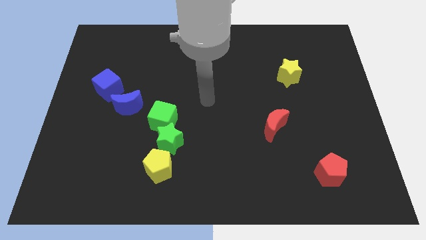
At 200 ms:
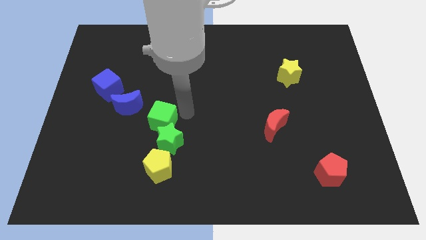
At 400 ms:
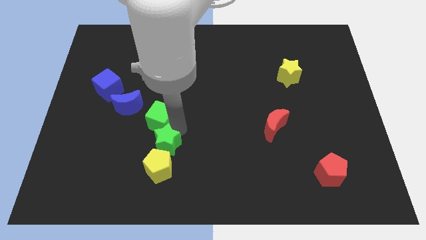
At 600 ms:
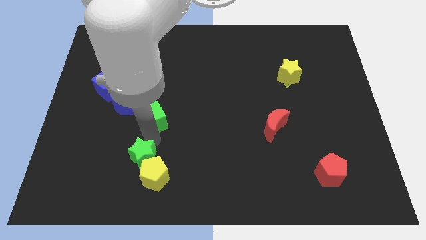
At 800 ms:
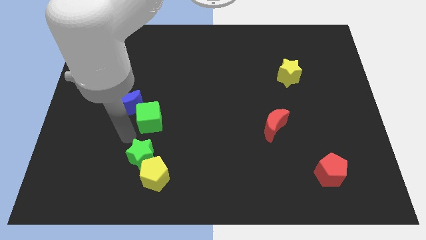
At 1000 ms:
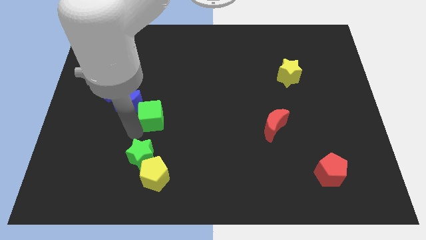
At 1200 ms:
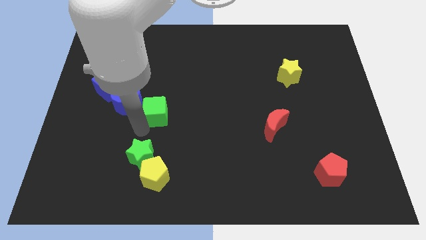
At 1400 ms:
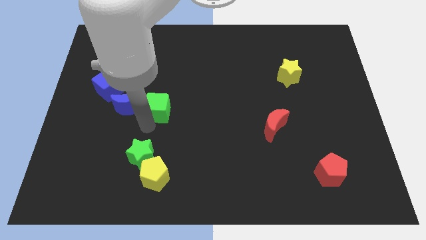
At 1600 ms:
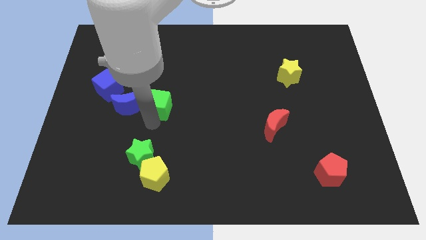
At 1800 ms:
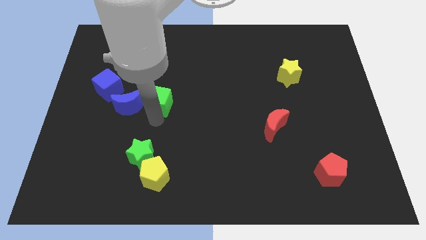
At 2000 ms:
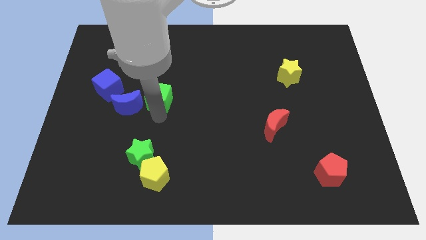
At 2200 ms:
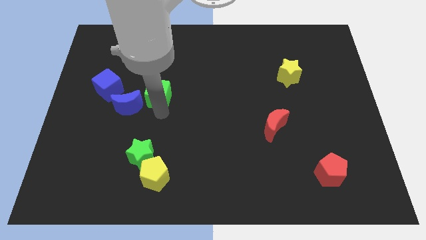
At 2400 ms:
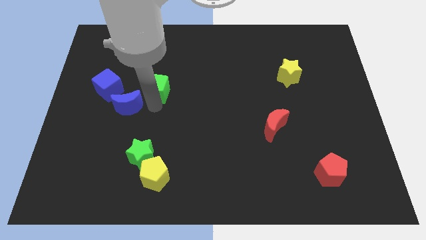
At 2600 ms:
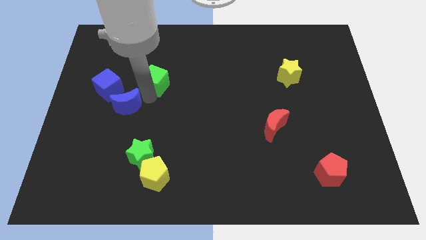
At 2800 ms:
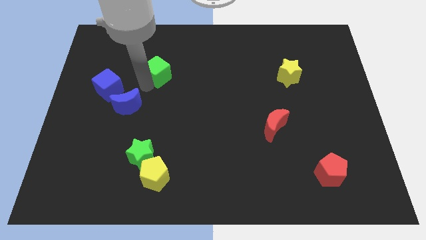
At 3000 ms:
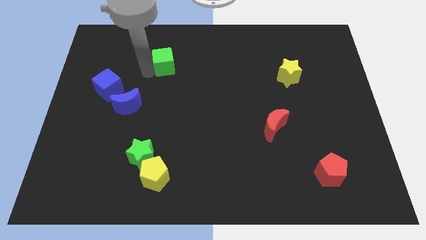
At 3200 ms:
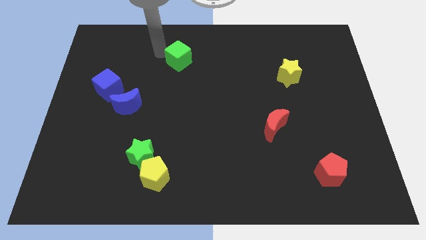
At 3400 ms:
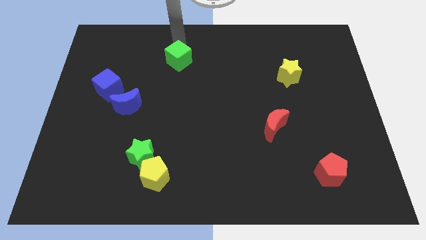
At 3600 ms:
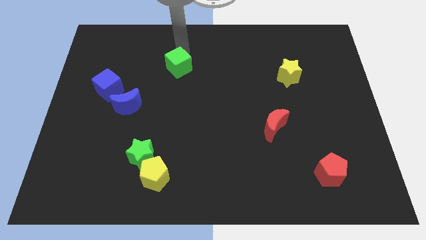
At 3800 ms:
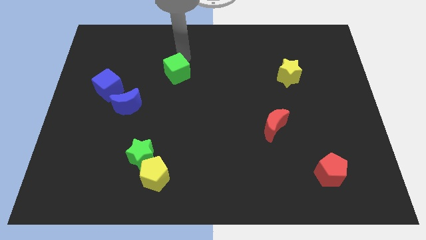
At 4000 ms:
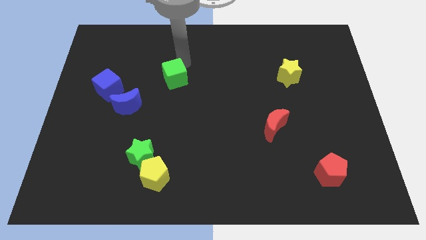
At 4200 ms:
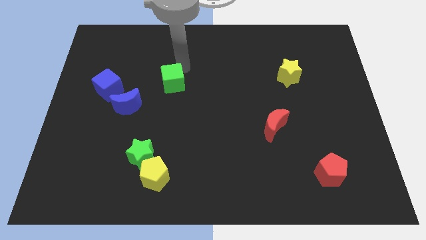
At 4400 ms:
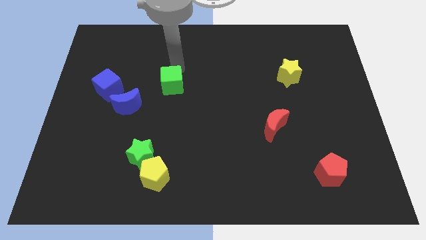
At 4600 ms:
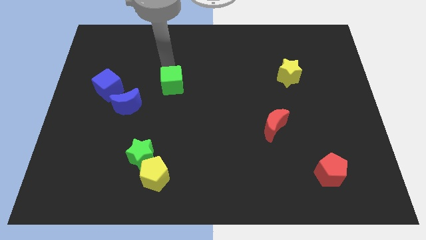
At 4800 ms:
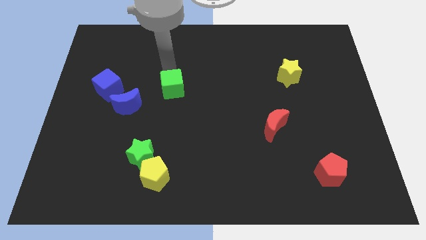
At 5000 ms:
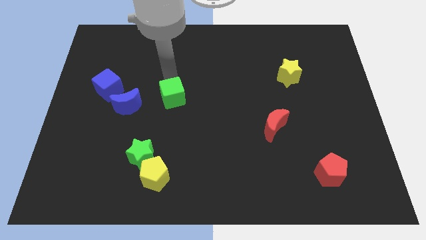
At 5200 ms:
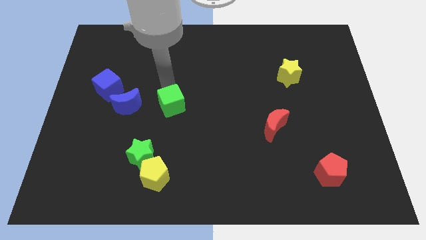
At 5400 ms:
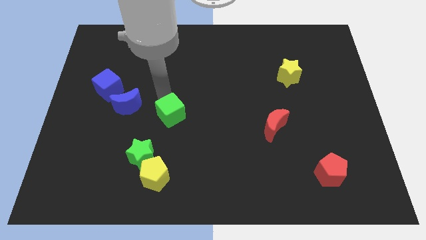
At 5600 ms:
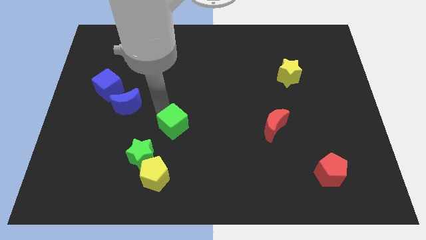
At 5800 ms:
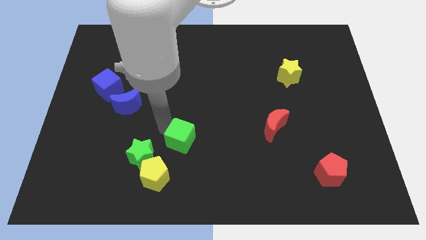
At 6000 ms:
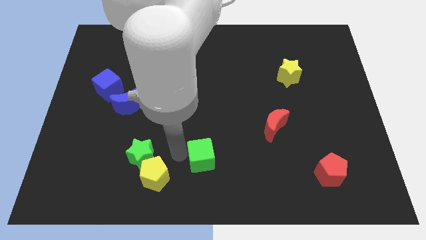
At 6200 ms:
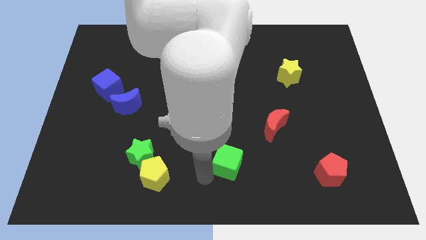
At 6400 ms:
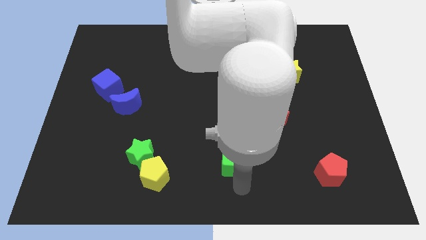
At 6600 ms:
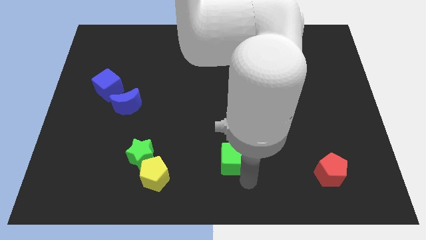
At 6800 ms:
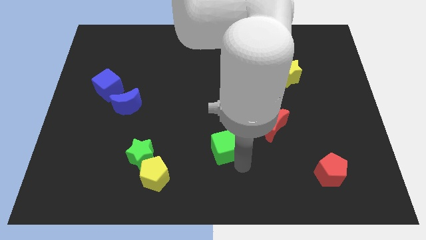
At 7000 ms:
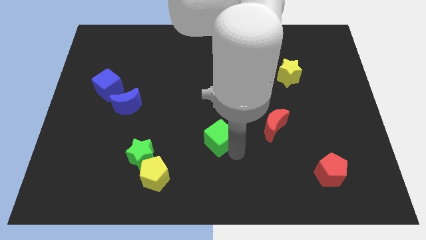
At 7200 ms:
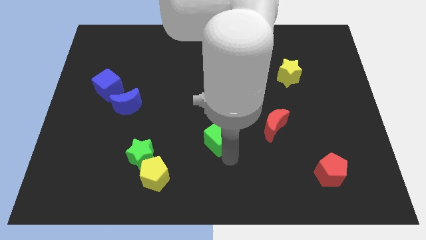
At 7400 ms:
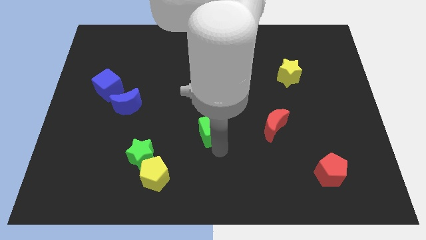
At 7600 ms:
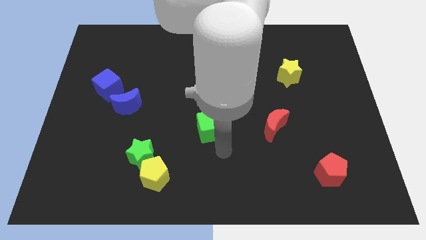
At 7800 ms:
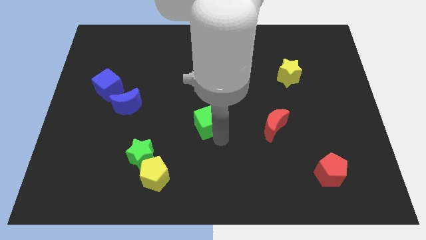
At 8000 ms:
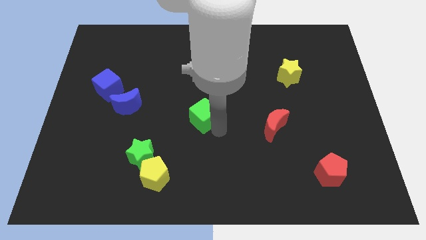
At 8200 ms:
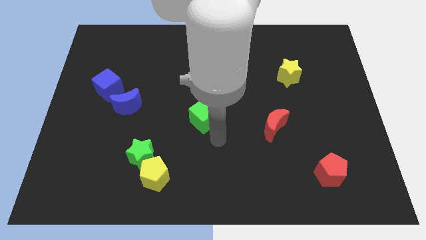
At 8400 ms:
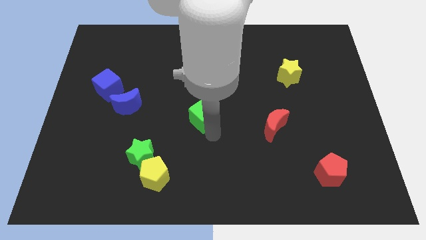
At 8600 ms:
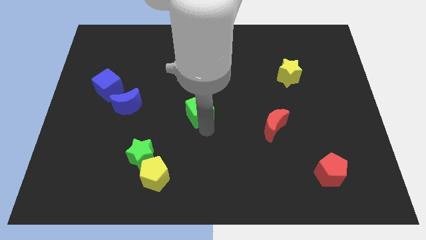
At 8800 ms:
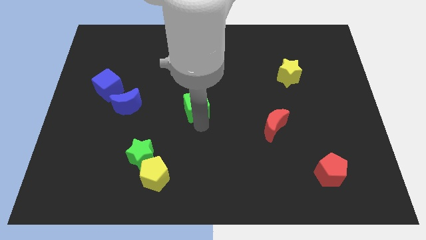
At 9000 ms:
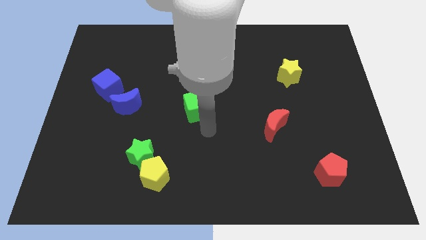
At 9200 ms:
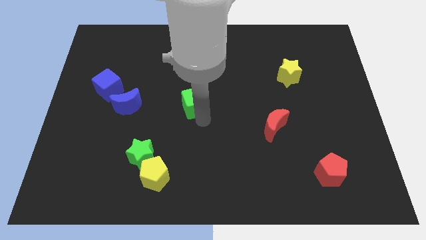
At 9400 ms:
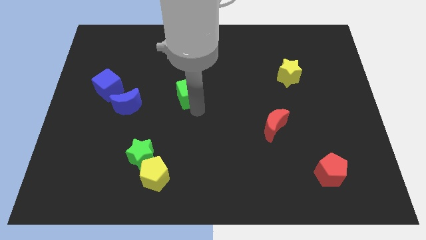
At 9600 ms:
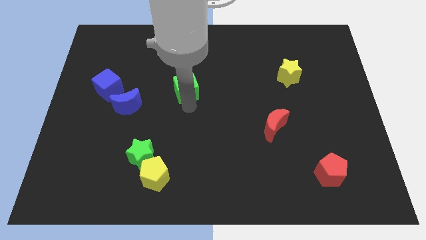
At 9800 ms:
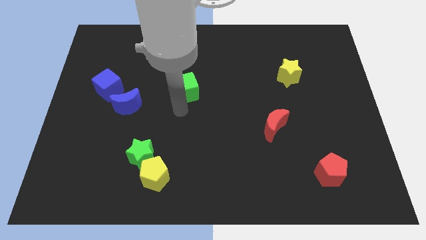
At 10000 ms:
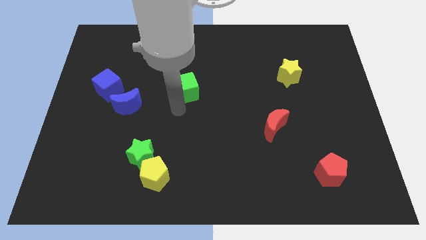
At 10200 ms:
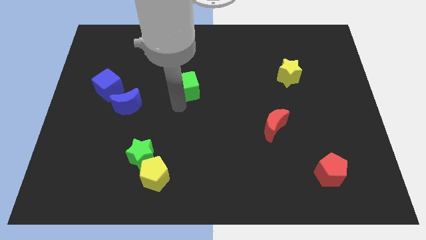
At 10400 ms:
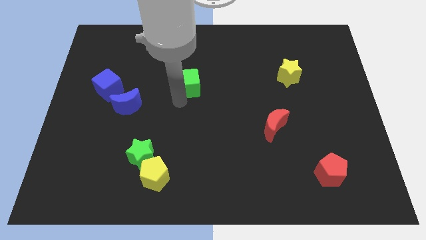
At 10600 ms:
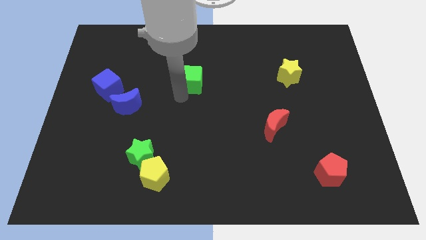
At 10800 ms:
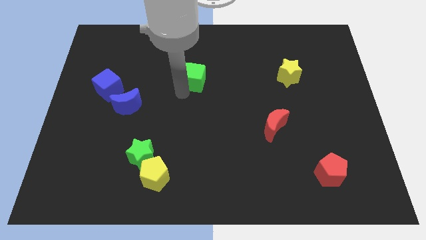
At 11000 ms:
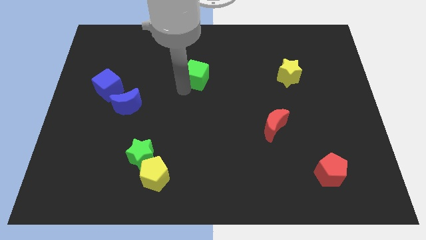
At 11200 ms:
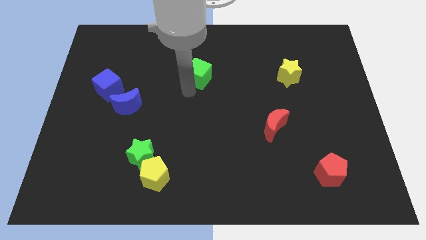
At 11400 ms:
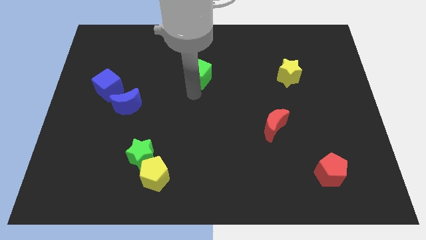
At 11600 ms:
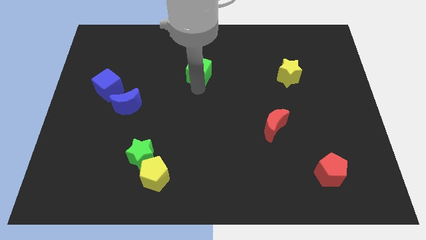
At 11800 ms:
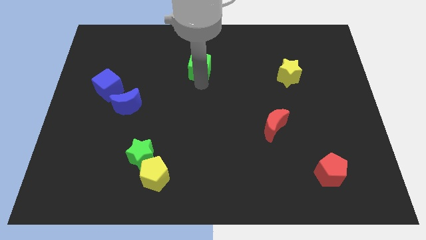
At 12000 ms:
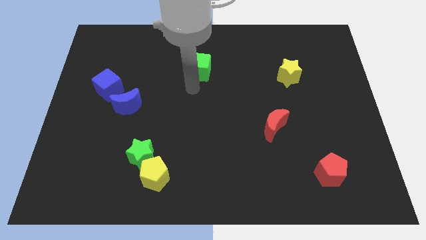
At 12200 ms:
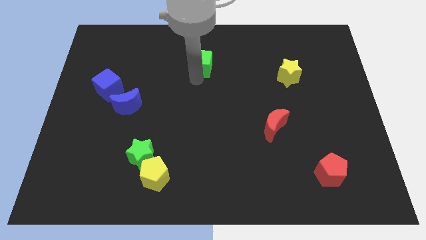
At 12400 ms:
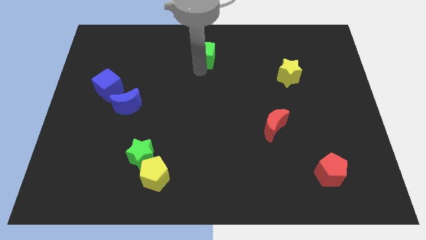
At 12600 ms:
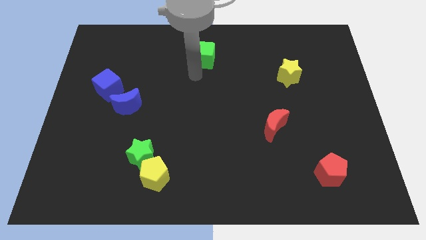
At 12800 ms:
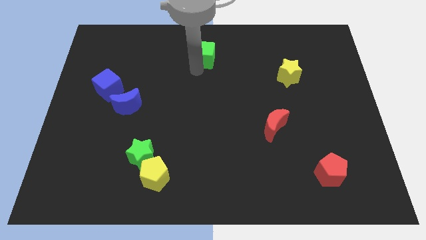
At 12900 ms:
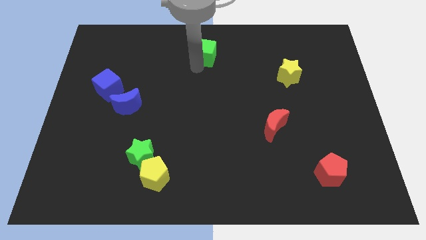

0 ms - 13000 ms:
move the green cube to the top side
